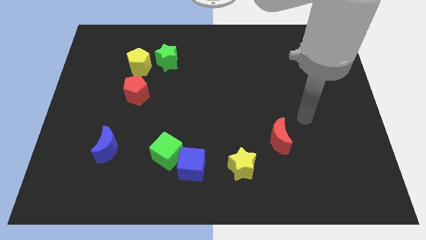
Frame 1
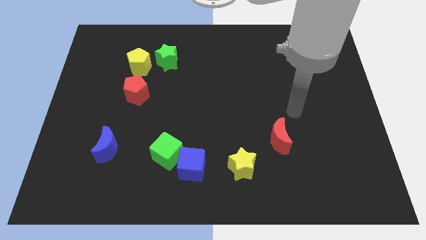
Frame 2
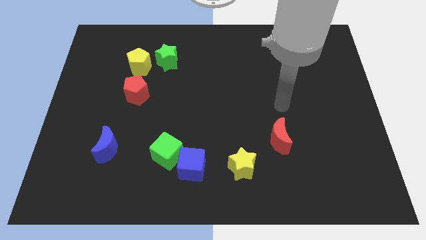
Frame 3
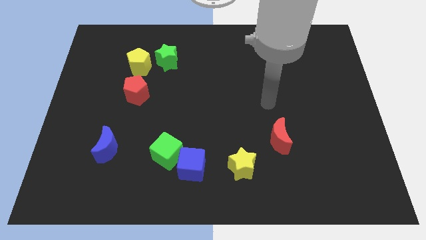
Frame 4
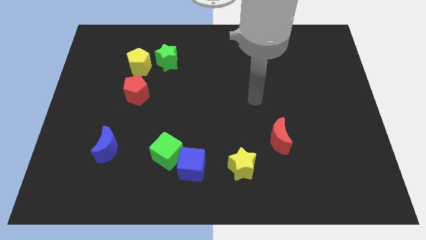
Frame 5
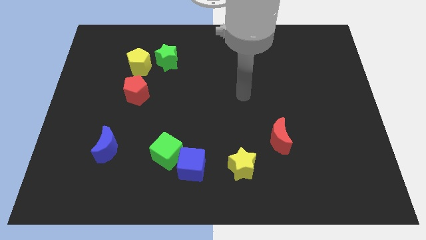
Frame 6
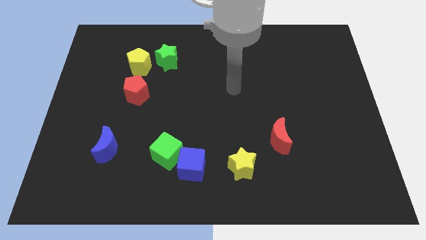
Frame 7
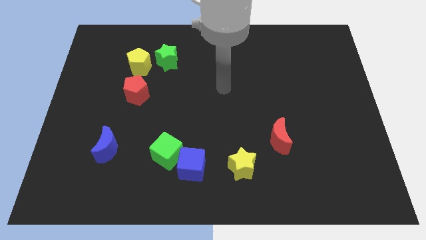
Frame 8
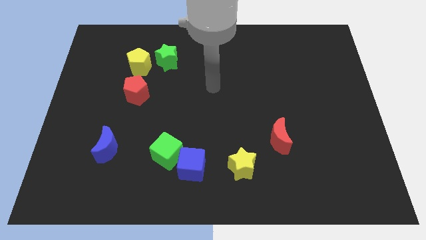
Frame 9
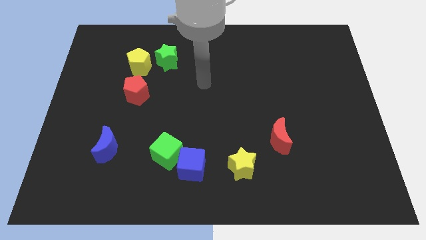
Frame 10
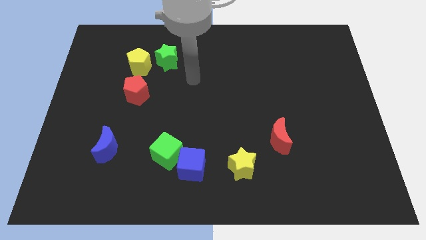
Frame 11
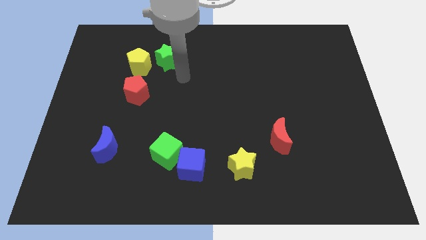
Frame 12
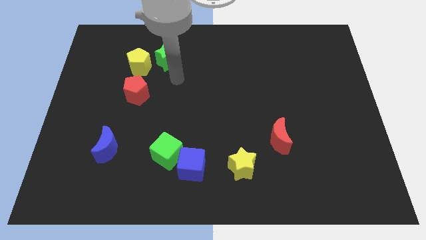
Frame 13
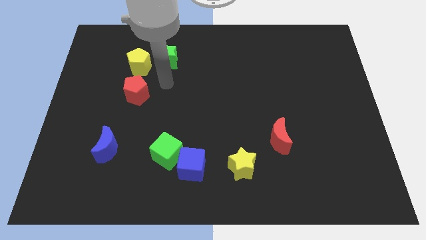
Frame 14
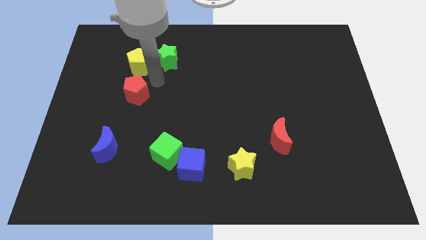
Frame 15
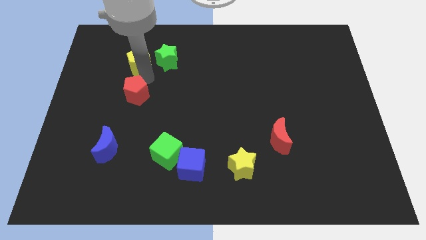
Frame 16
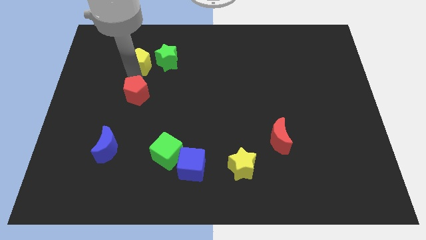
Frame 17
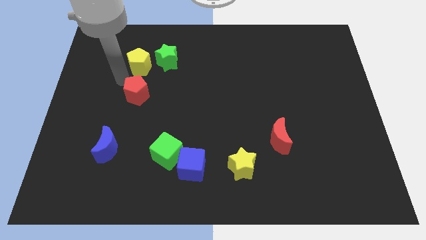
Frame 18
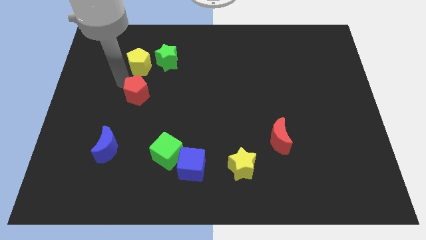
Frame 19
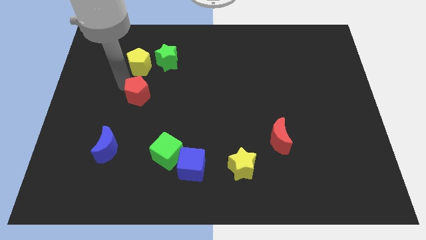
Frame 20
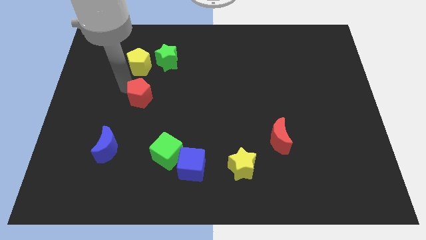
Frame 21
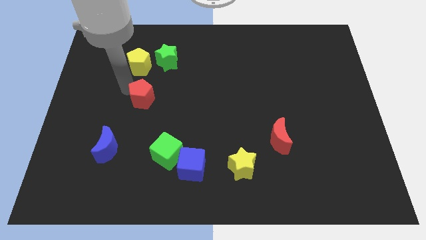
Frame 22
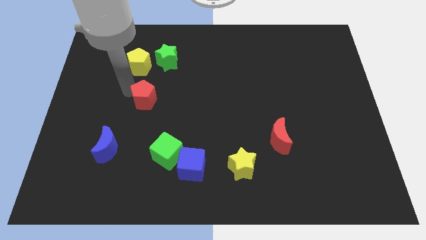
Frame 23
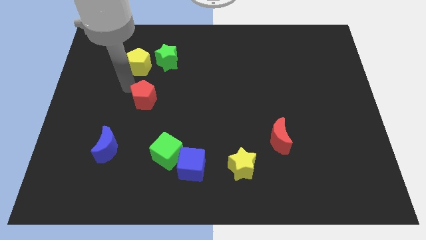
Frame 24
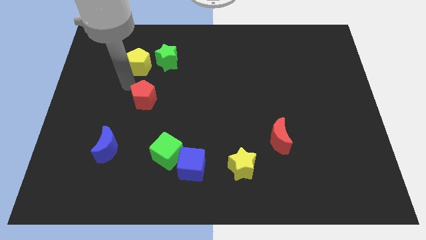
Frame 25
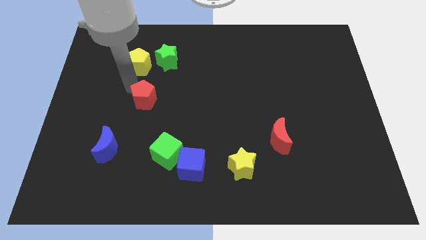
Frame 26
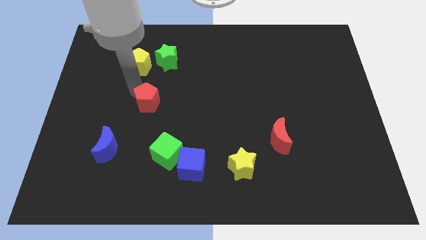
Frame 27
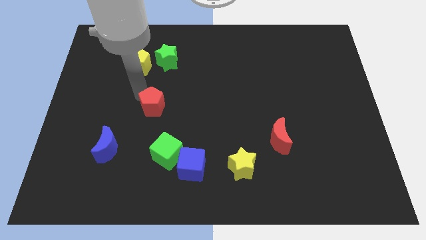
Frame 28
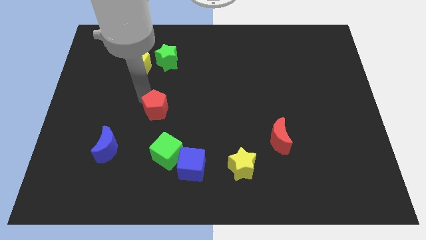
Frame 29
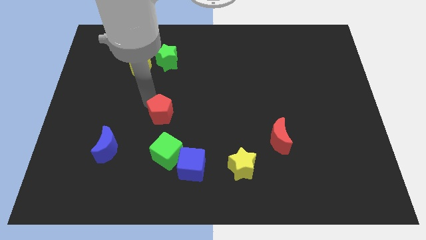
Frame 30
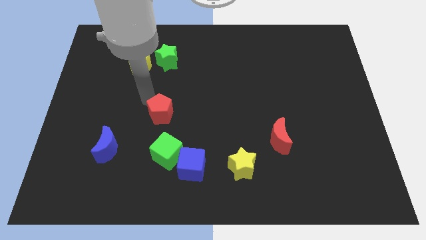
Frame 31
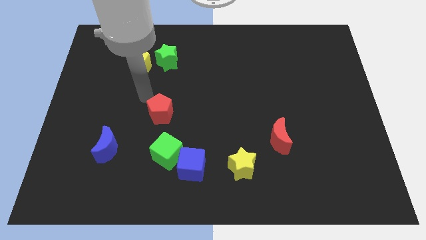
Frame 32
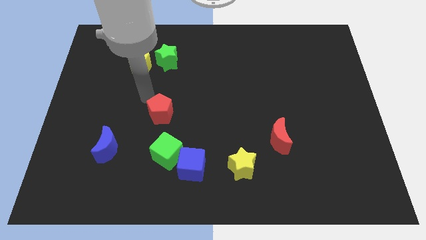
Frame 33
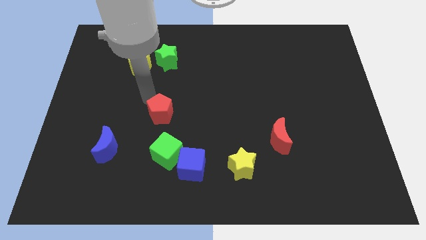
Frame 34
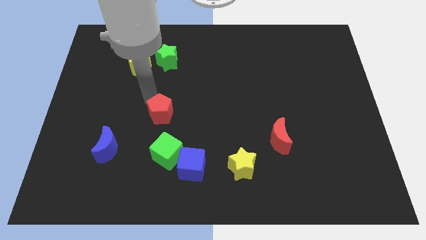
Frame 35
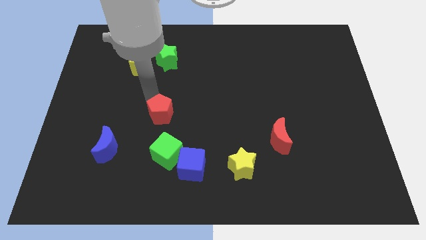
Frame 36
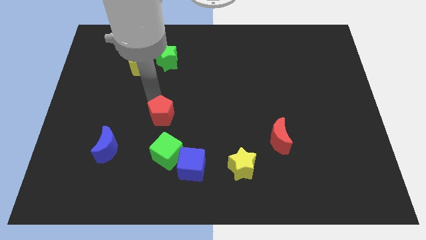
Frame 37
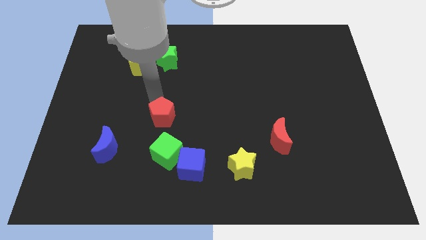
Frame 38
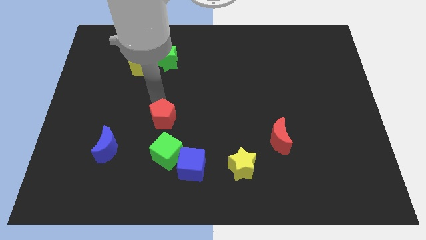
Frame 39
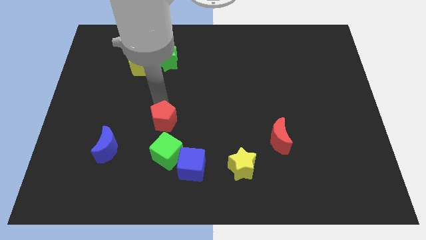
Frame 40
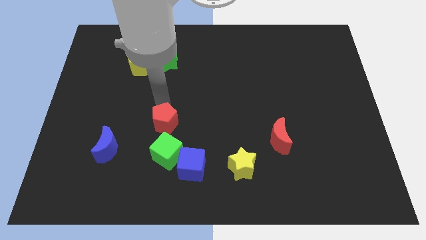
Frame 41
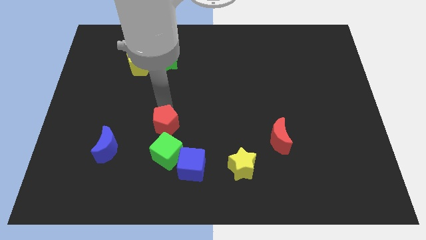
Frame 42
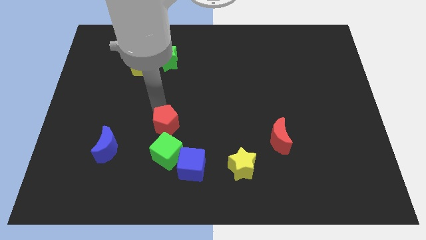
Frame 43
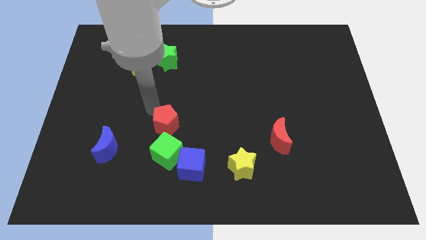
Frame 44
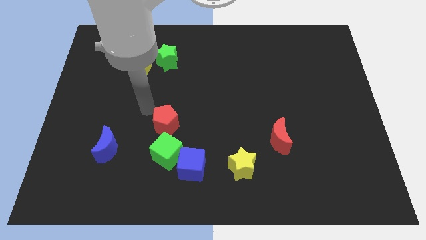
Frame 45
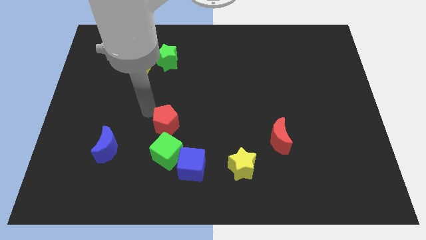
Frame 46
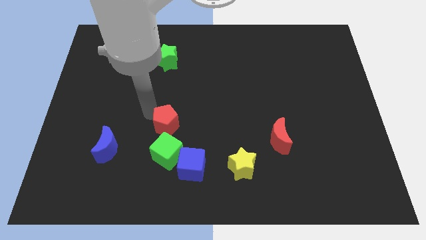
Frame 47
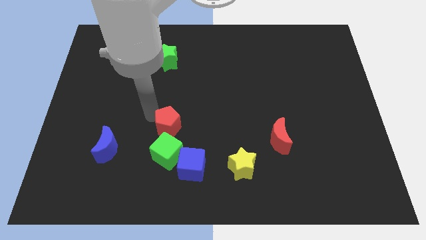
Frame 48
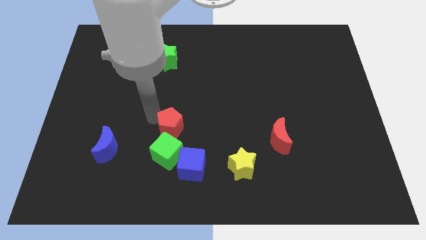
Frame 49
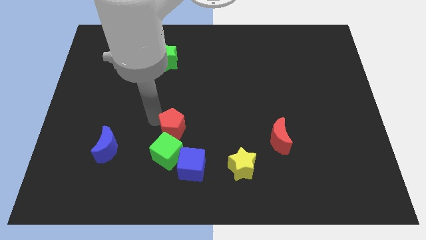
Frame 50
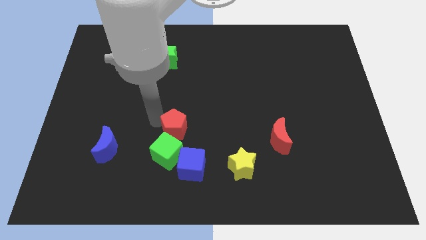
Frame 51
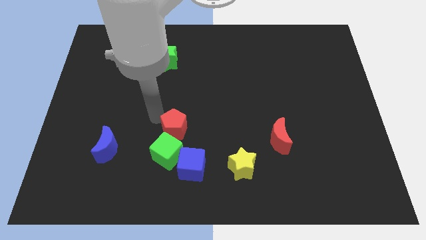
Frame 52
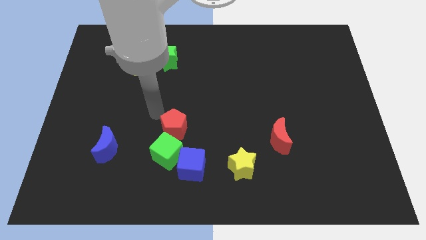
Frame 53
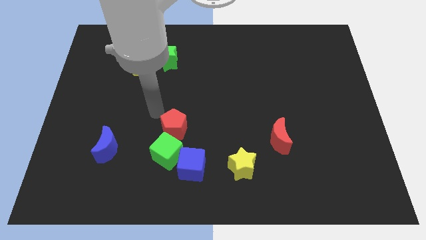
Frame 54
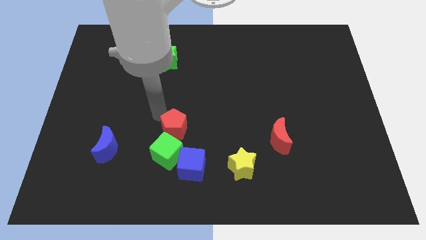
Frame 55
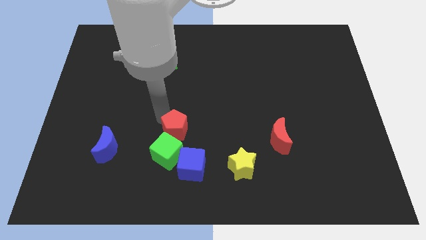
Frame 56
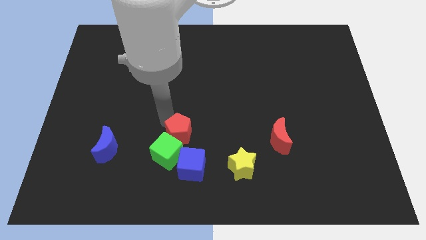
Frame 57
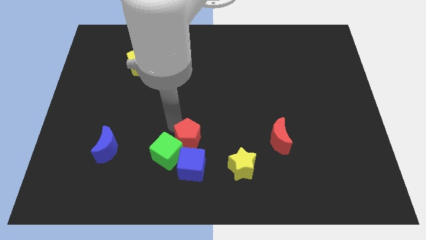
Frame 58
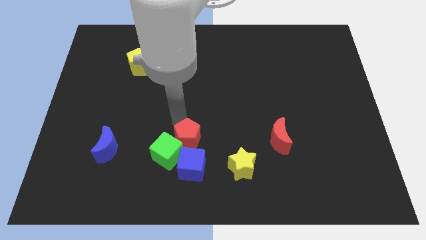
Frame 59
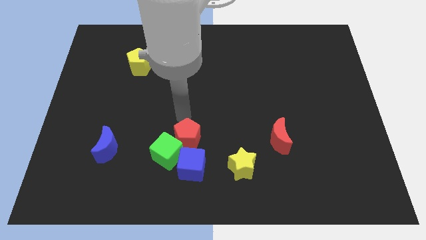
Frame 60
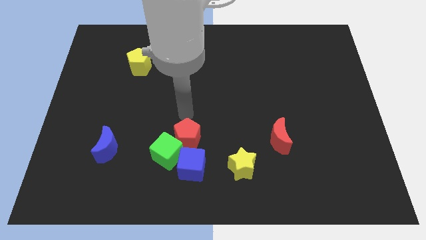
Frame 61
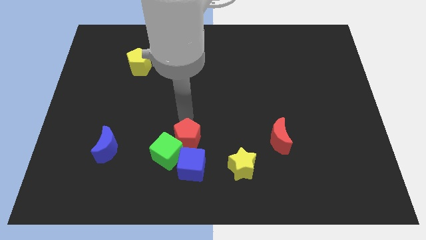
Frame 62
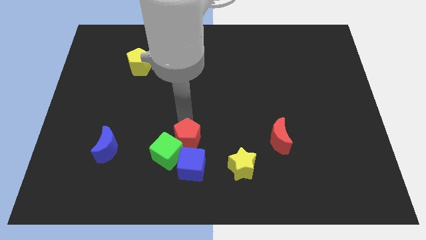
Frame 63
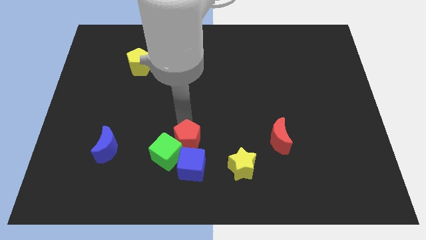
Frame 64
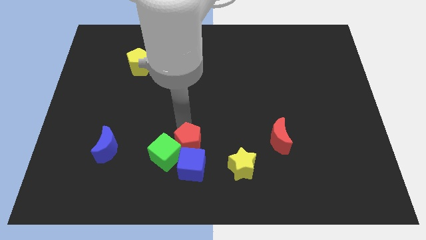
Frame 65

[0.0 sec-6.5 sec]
move the red pentagon towards the blue cube
